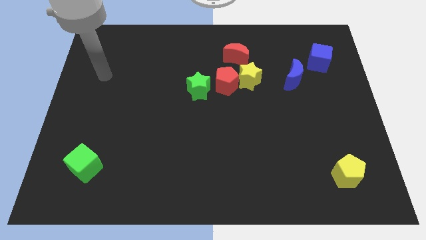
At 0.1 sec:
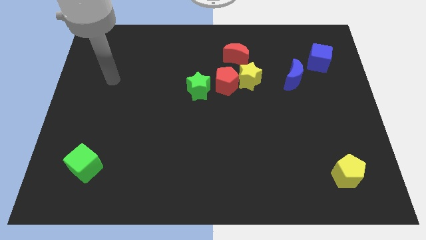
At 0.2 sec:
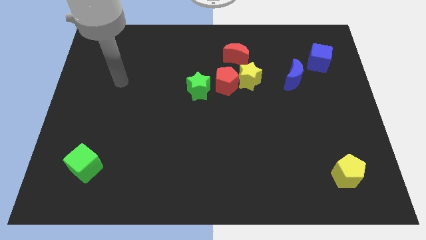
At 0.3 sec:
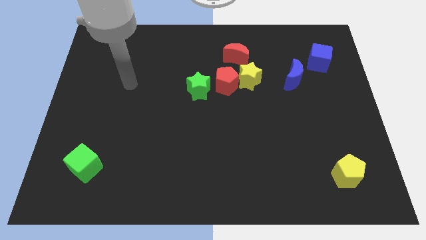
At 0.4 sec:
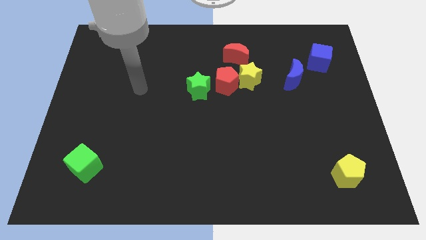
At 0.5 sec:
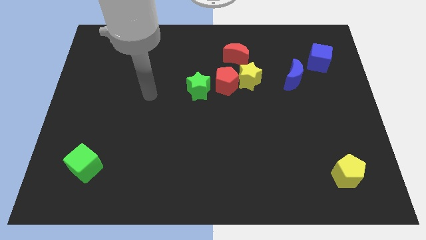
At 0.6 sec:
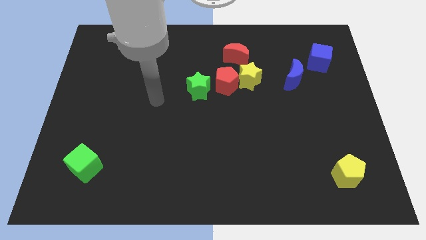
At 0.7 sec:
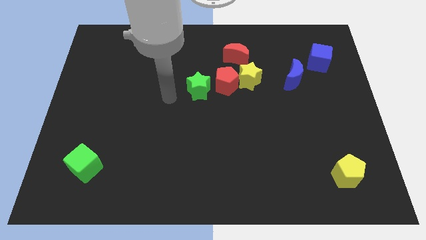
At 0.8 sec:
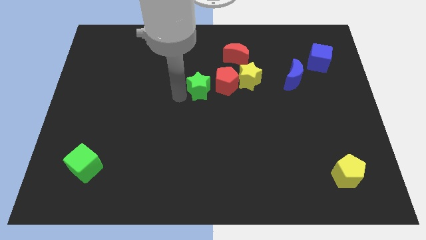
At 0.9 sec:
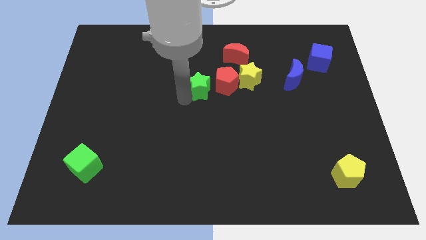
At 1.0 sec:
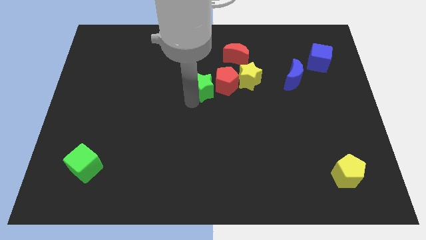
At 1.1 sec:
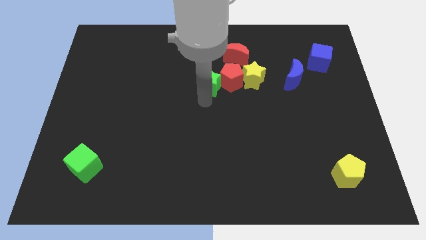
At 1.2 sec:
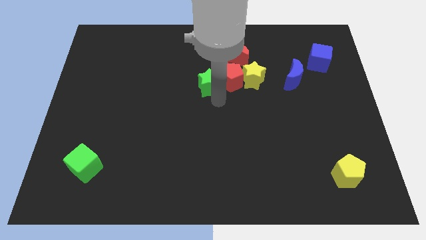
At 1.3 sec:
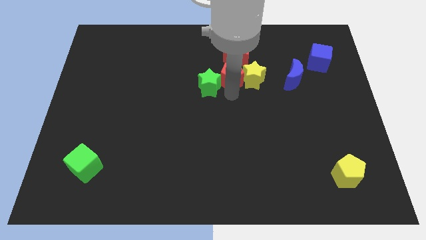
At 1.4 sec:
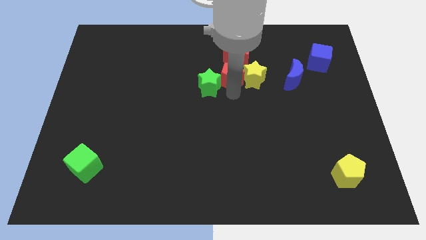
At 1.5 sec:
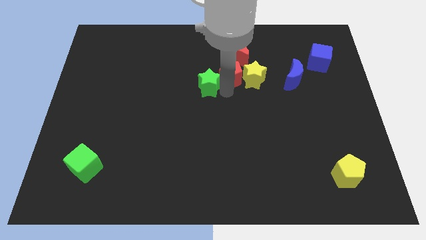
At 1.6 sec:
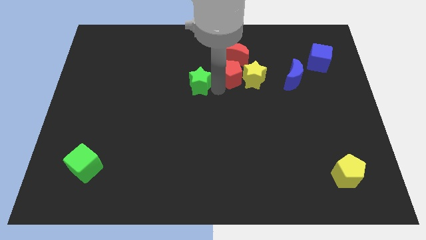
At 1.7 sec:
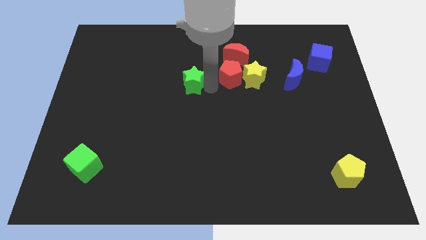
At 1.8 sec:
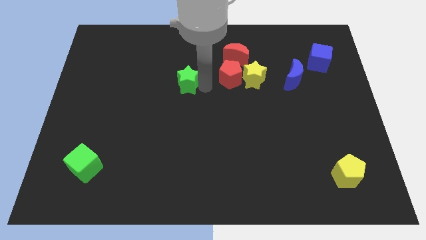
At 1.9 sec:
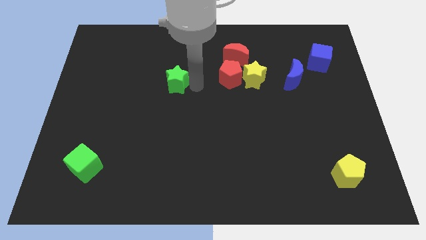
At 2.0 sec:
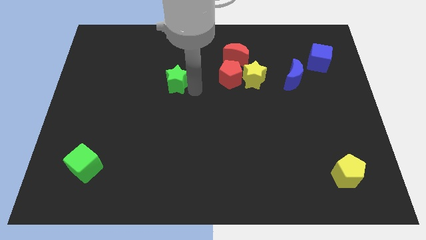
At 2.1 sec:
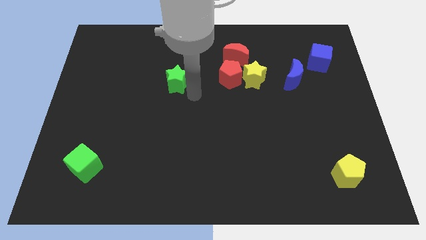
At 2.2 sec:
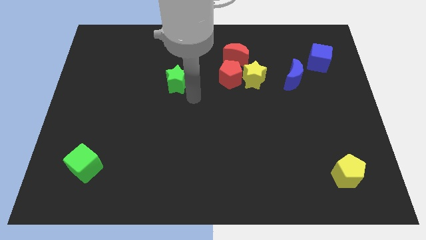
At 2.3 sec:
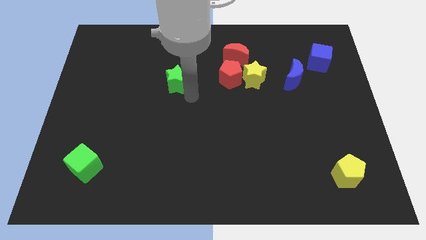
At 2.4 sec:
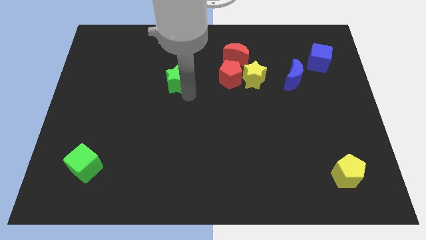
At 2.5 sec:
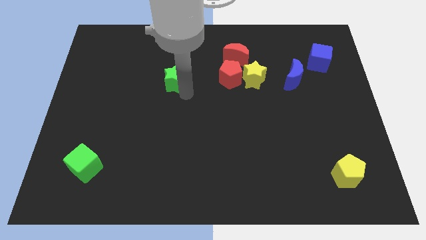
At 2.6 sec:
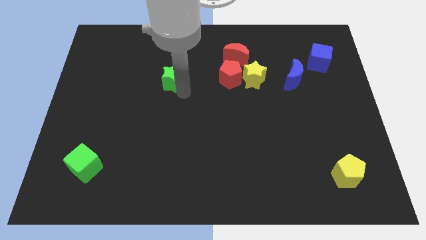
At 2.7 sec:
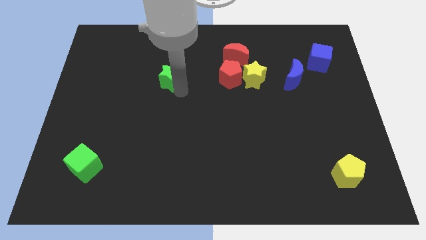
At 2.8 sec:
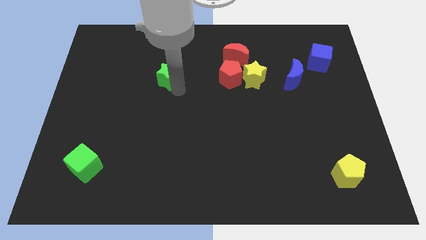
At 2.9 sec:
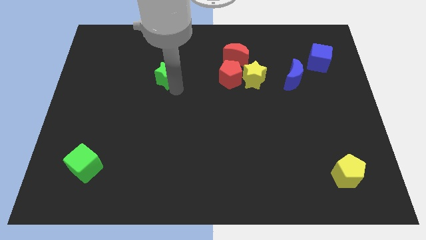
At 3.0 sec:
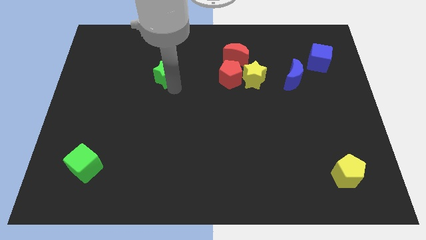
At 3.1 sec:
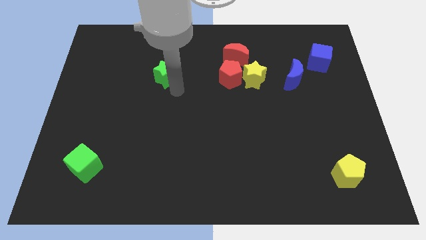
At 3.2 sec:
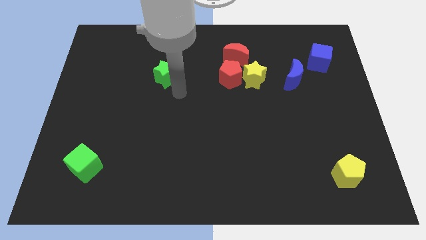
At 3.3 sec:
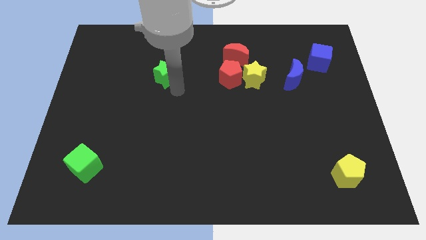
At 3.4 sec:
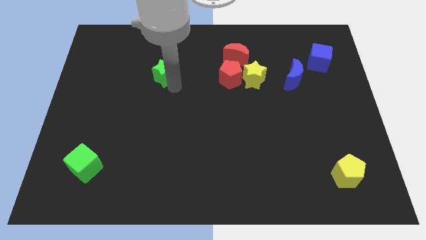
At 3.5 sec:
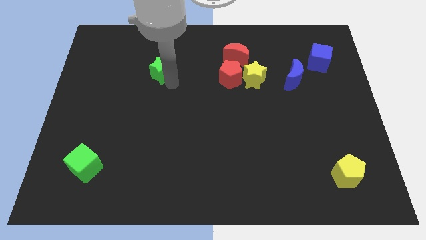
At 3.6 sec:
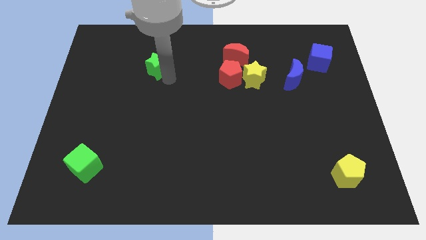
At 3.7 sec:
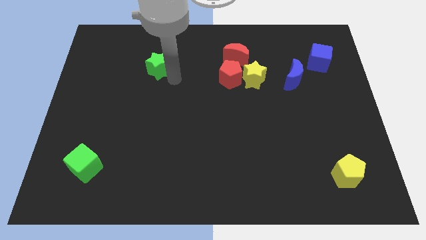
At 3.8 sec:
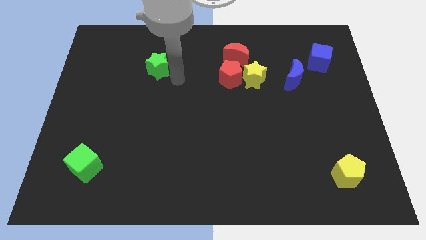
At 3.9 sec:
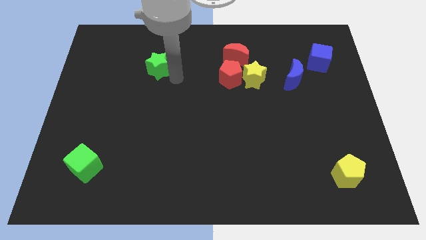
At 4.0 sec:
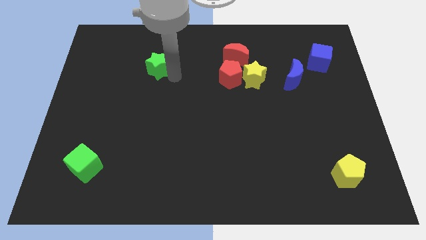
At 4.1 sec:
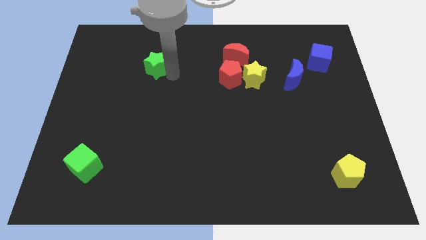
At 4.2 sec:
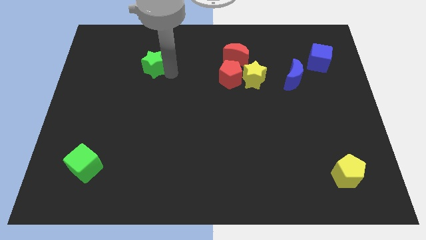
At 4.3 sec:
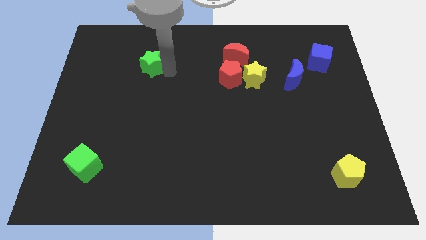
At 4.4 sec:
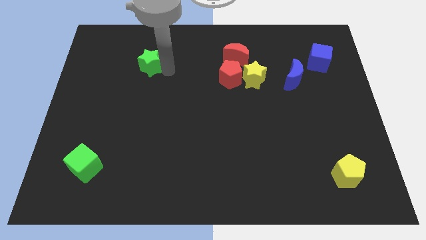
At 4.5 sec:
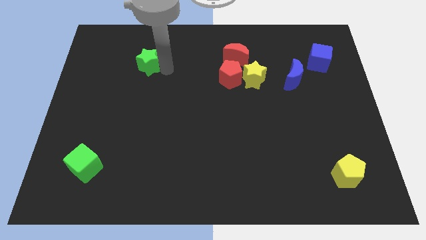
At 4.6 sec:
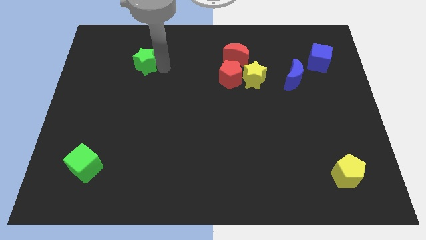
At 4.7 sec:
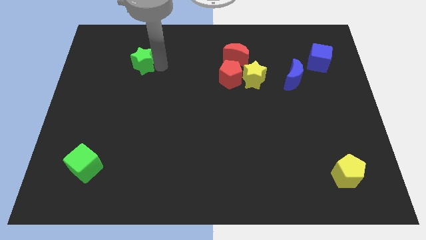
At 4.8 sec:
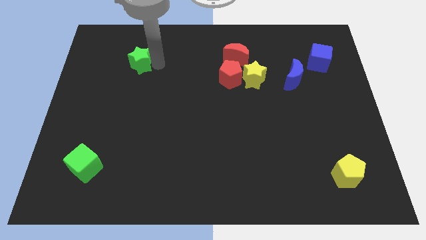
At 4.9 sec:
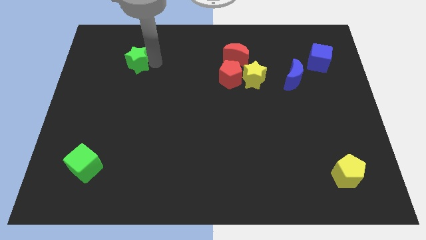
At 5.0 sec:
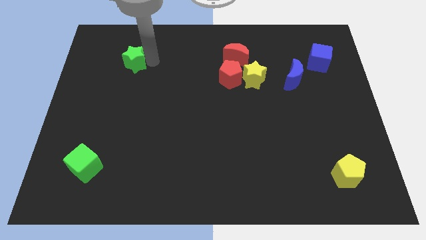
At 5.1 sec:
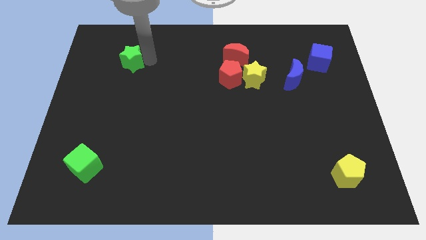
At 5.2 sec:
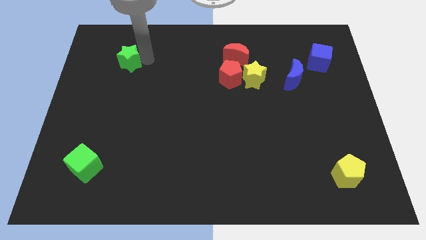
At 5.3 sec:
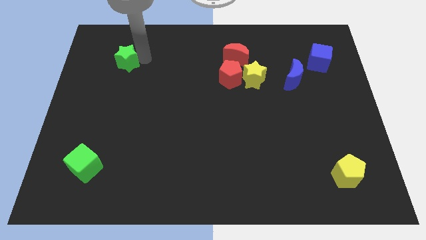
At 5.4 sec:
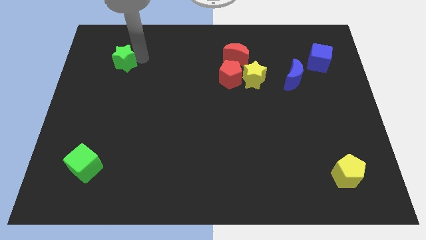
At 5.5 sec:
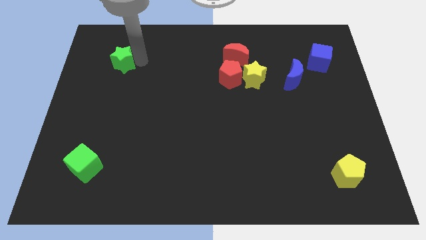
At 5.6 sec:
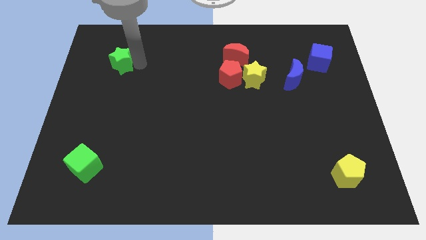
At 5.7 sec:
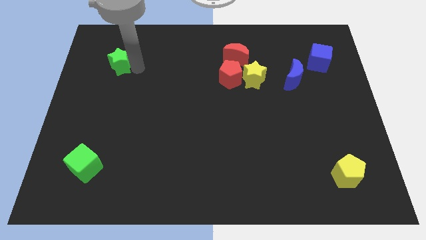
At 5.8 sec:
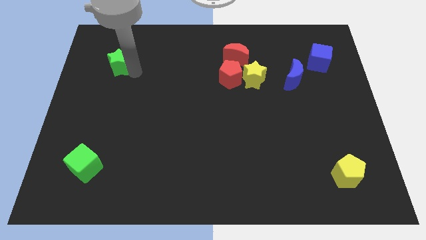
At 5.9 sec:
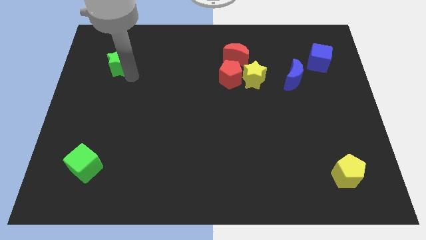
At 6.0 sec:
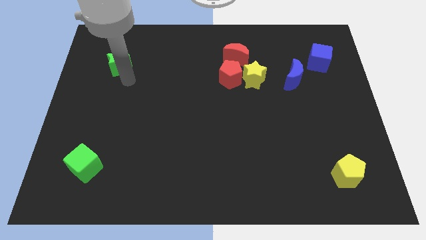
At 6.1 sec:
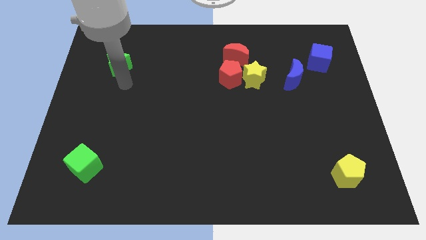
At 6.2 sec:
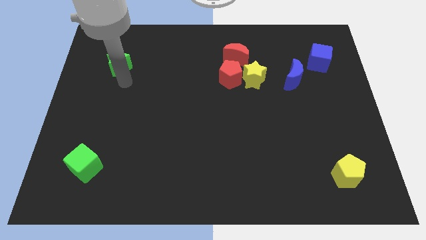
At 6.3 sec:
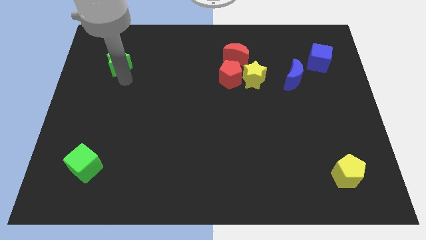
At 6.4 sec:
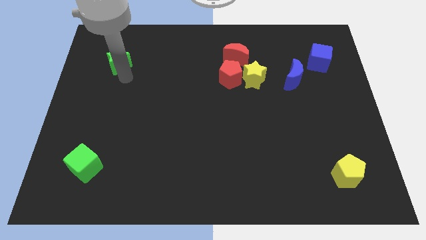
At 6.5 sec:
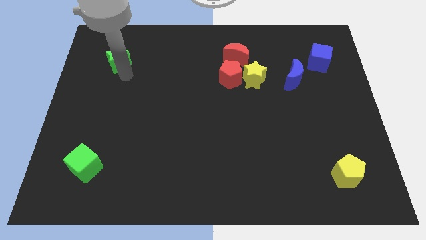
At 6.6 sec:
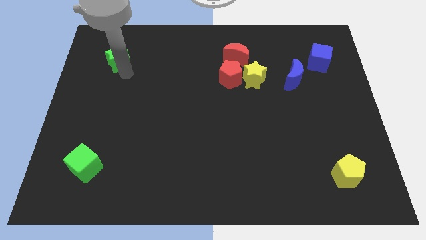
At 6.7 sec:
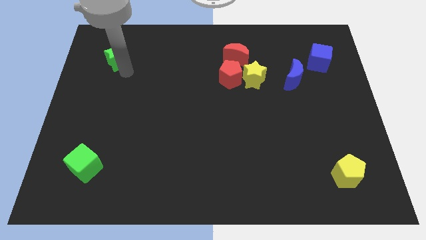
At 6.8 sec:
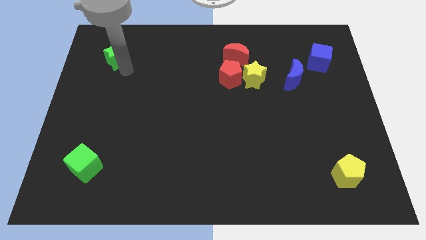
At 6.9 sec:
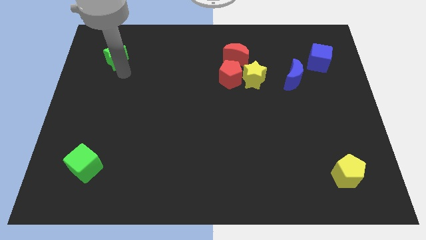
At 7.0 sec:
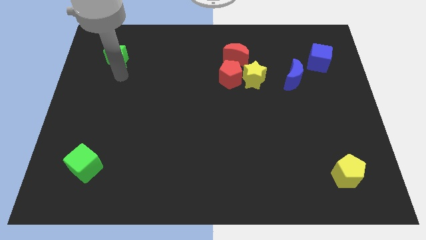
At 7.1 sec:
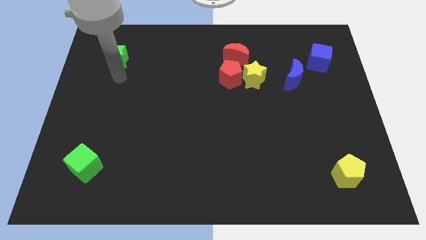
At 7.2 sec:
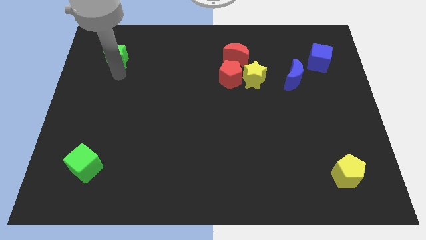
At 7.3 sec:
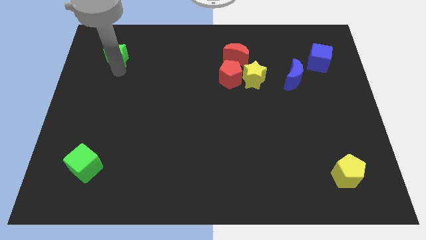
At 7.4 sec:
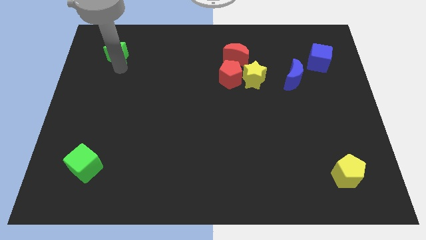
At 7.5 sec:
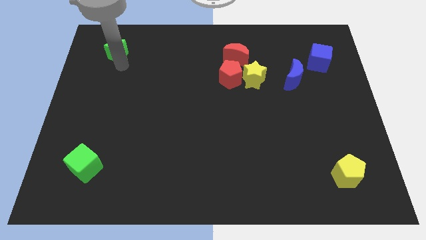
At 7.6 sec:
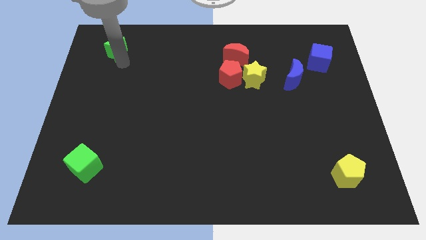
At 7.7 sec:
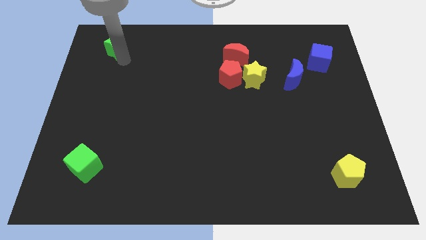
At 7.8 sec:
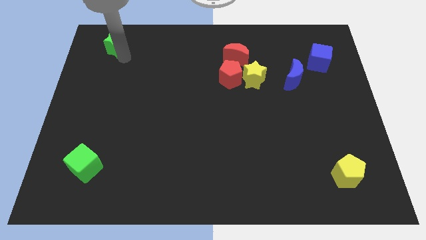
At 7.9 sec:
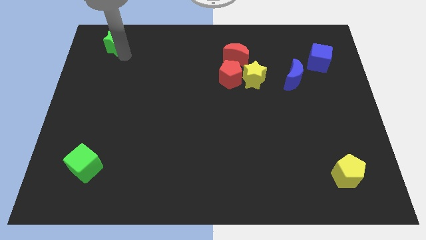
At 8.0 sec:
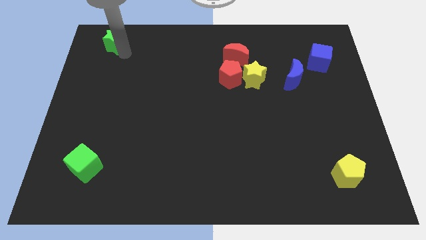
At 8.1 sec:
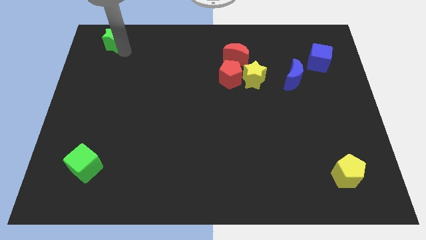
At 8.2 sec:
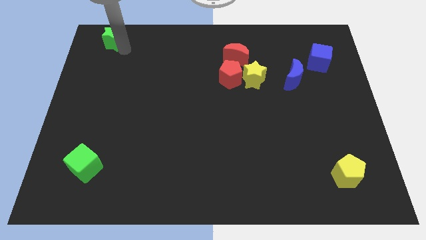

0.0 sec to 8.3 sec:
slide the green star to the top left
